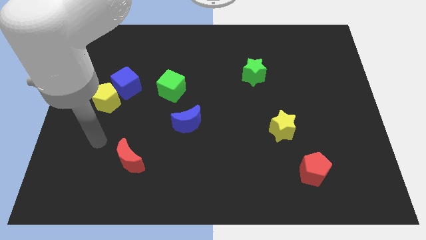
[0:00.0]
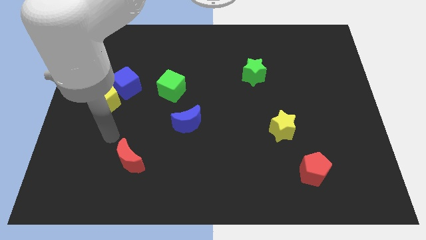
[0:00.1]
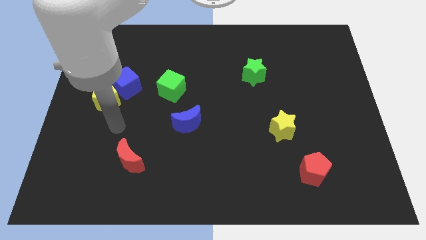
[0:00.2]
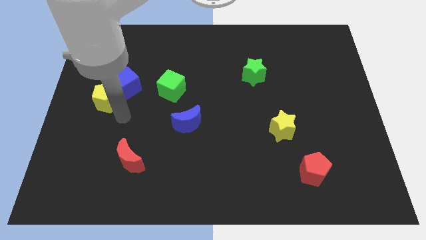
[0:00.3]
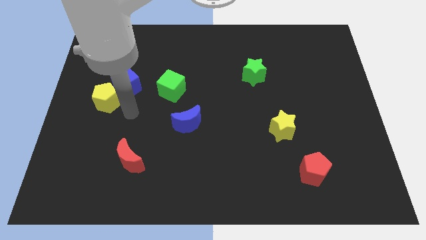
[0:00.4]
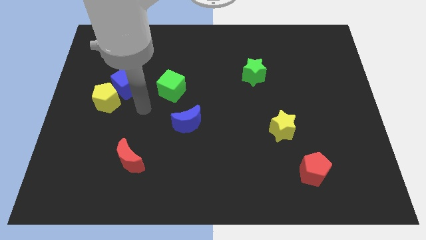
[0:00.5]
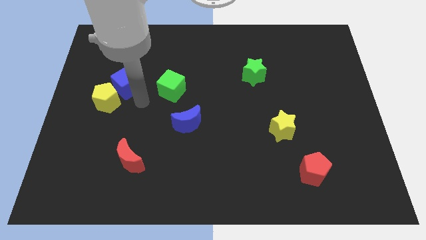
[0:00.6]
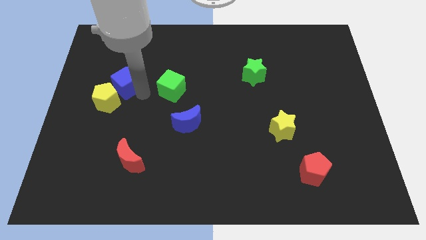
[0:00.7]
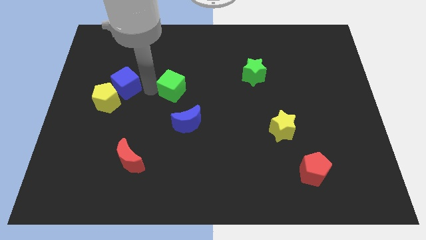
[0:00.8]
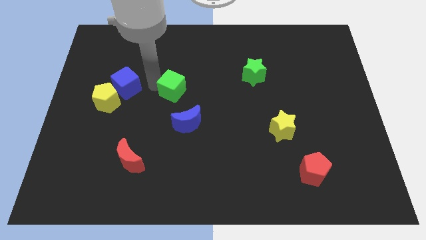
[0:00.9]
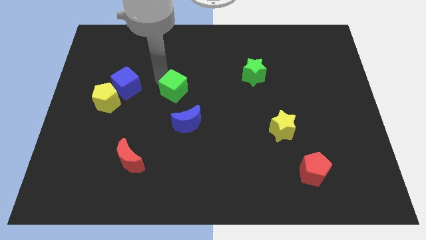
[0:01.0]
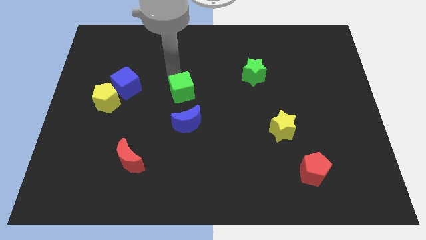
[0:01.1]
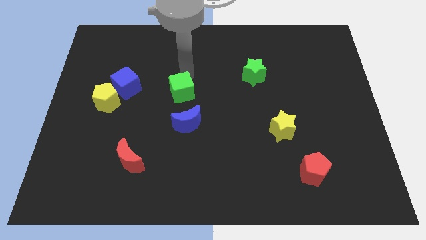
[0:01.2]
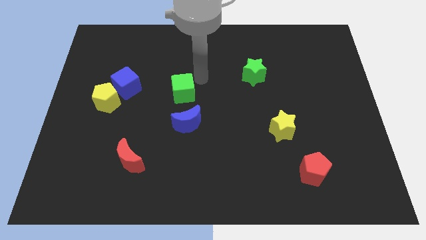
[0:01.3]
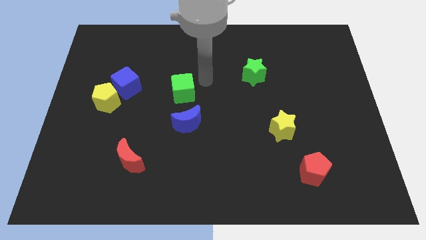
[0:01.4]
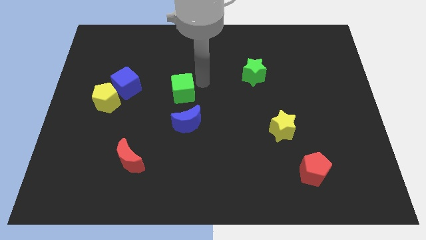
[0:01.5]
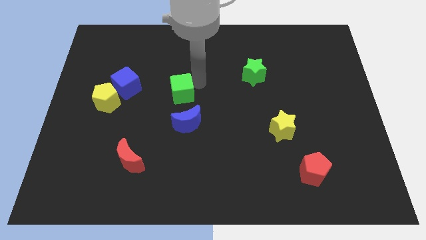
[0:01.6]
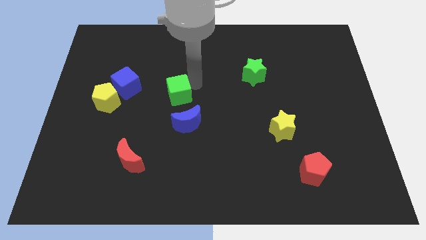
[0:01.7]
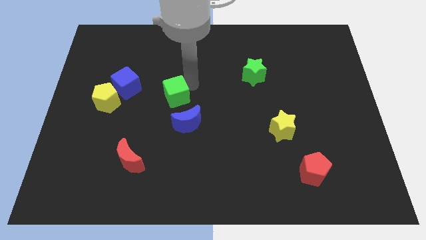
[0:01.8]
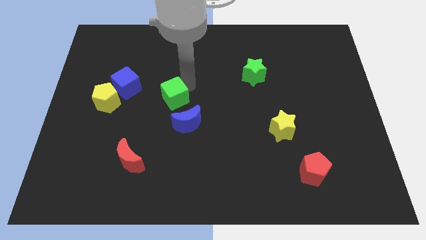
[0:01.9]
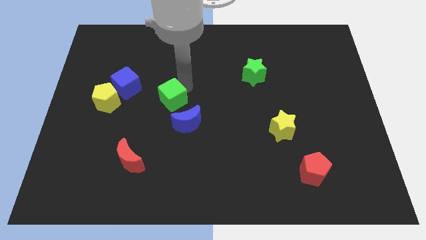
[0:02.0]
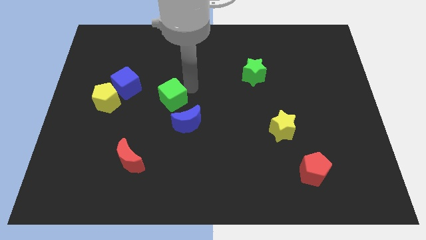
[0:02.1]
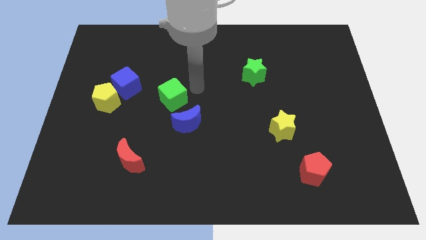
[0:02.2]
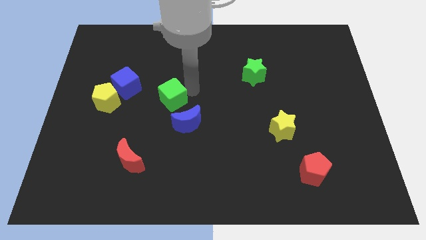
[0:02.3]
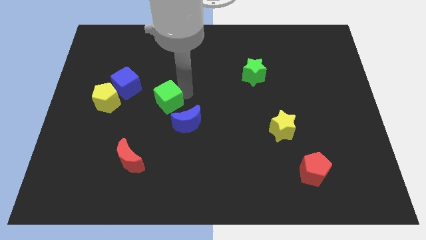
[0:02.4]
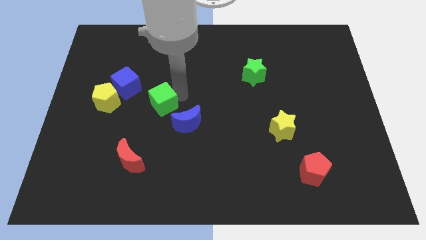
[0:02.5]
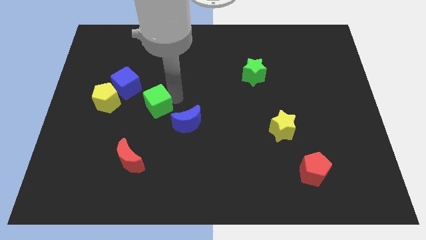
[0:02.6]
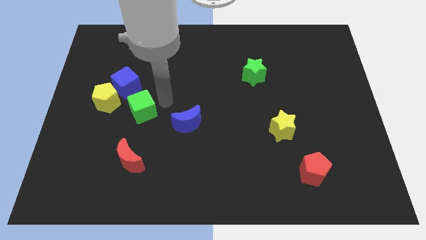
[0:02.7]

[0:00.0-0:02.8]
slightly move the green cube down and to the left diagonally

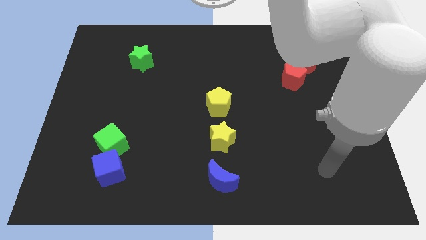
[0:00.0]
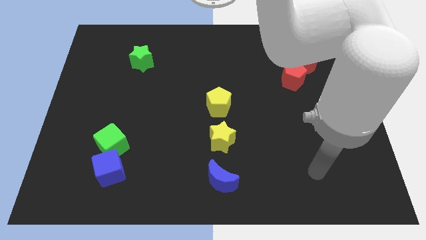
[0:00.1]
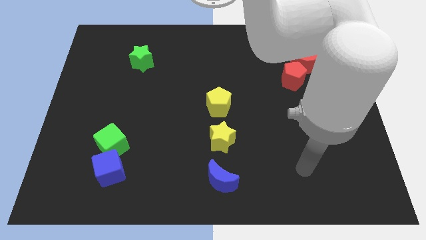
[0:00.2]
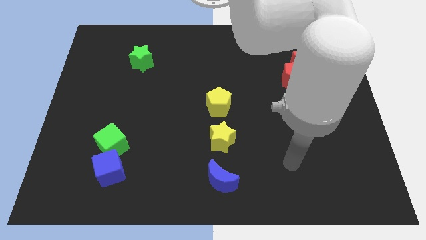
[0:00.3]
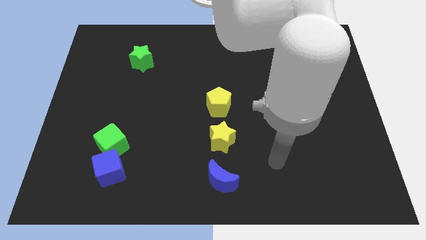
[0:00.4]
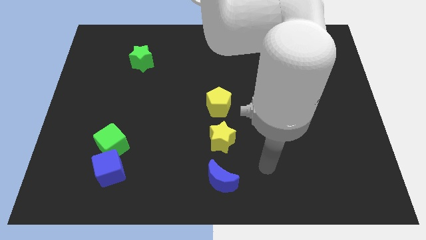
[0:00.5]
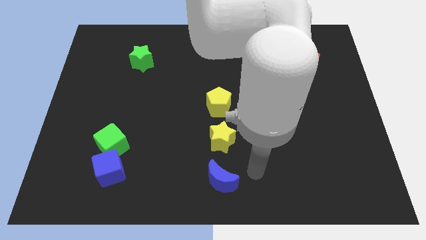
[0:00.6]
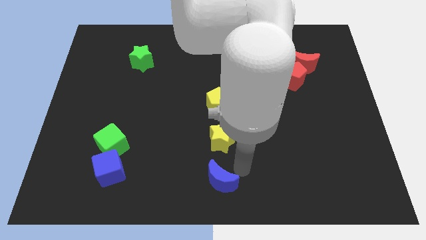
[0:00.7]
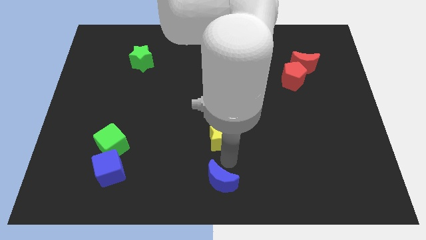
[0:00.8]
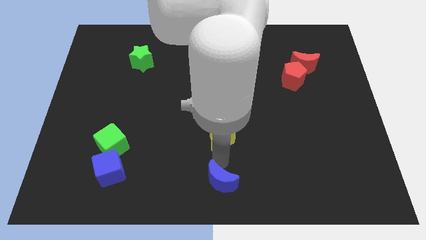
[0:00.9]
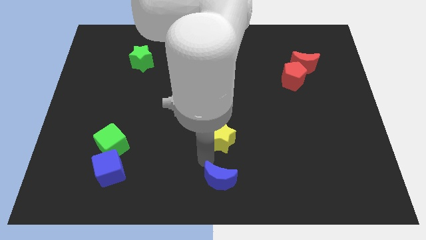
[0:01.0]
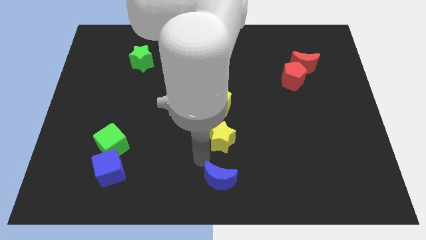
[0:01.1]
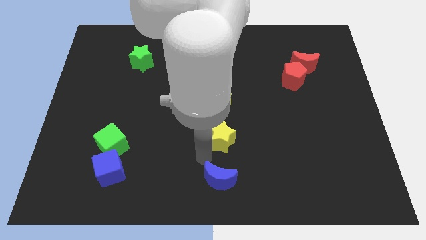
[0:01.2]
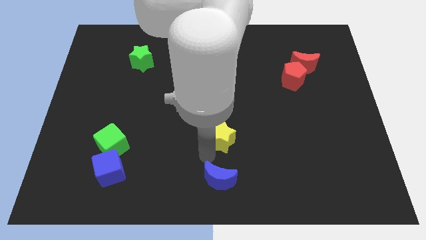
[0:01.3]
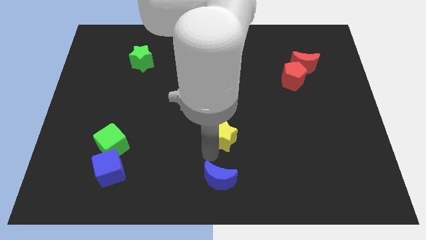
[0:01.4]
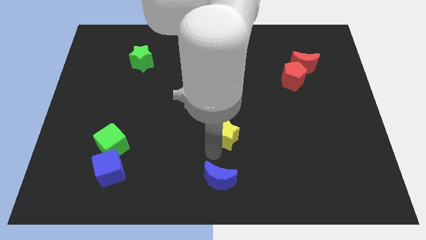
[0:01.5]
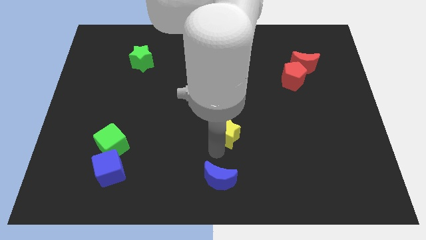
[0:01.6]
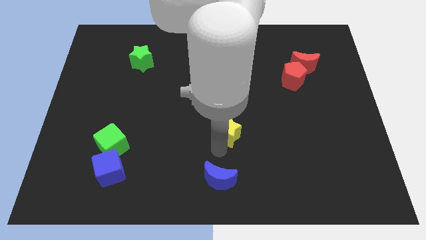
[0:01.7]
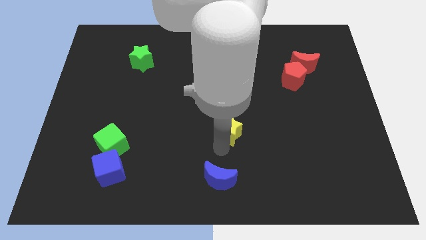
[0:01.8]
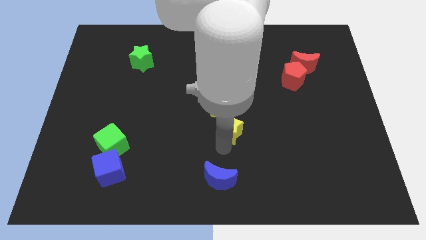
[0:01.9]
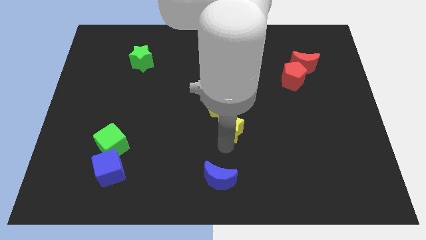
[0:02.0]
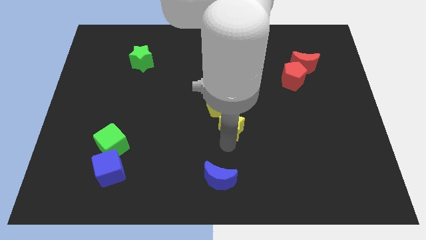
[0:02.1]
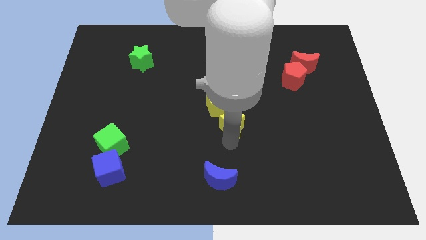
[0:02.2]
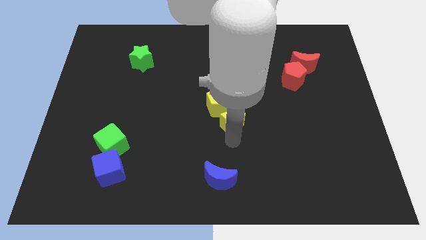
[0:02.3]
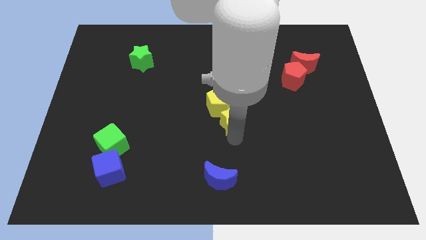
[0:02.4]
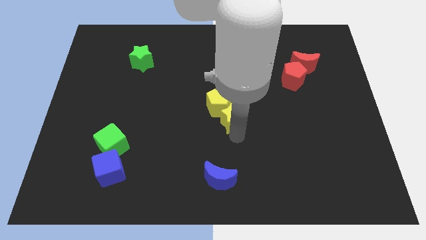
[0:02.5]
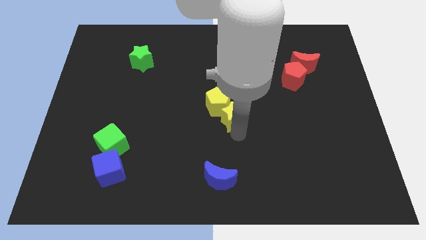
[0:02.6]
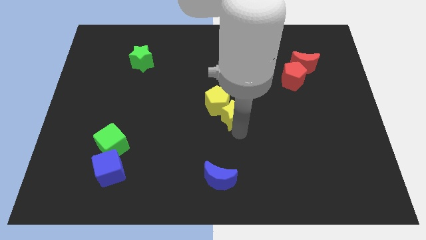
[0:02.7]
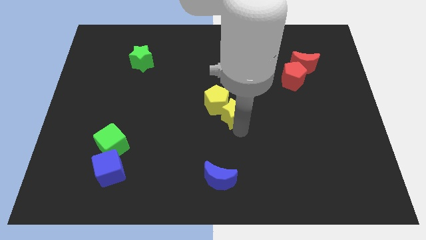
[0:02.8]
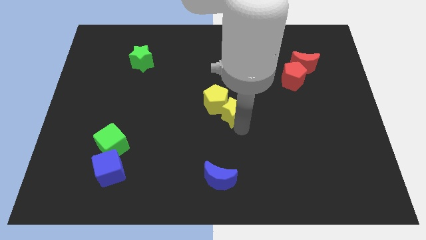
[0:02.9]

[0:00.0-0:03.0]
push the yellow star upwards a little bit

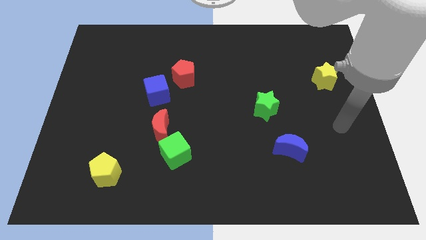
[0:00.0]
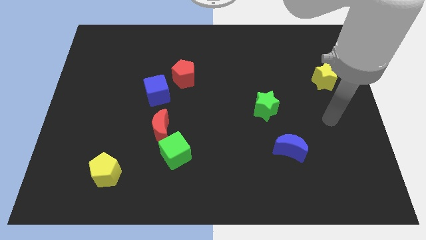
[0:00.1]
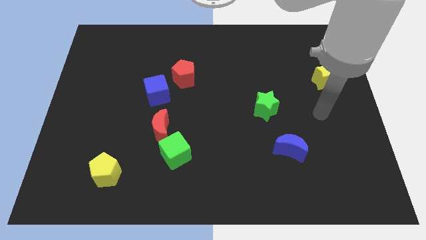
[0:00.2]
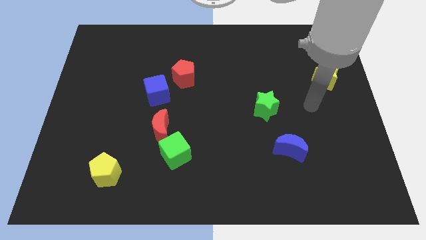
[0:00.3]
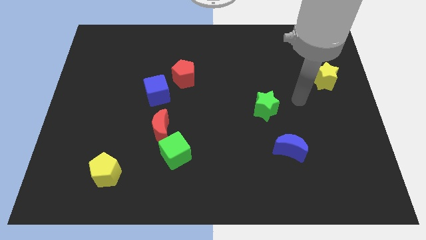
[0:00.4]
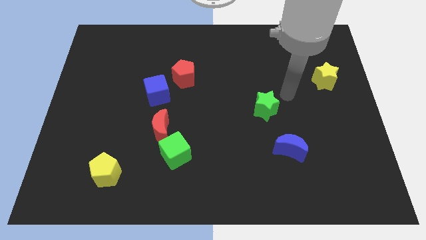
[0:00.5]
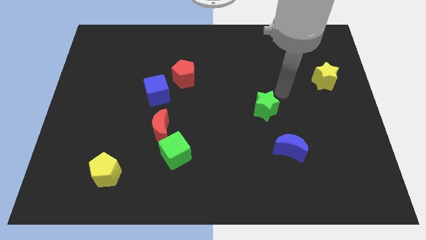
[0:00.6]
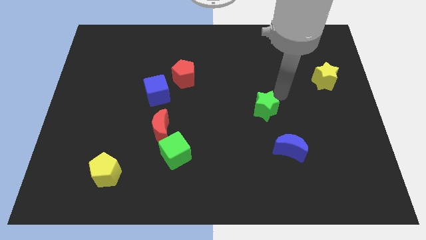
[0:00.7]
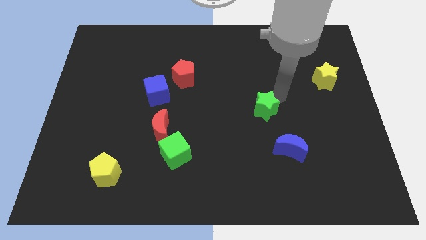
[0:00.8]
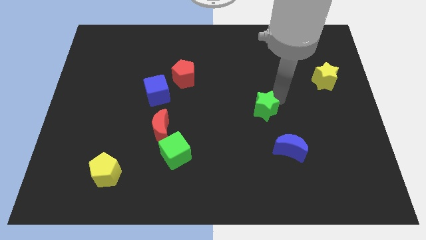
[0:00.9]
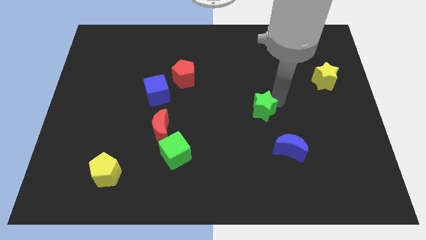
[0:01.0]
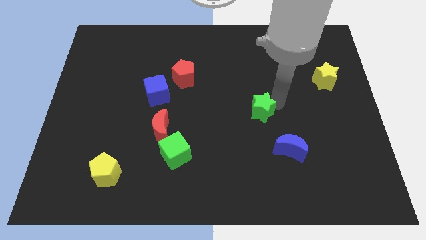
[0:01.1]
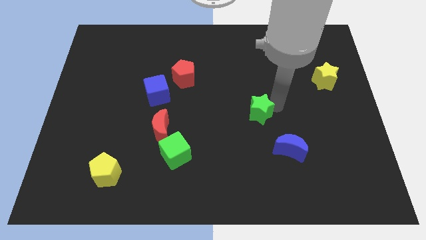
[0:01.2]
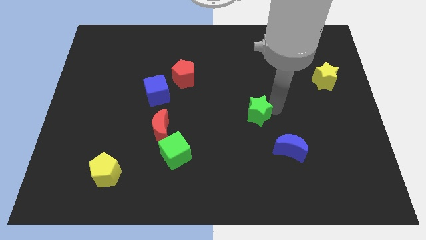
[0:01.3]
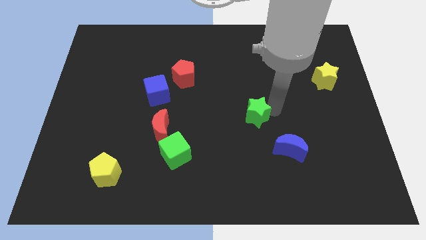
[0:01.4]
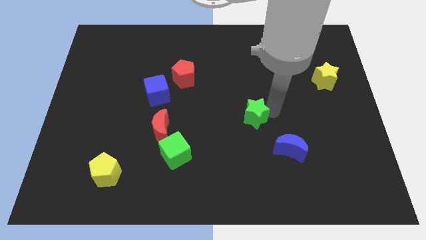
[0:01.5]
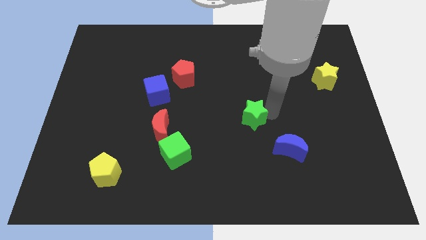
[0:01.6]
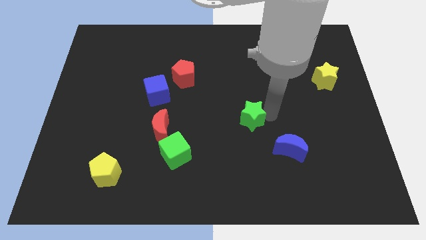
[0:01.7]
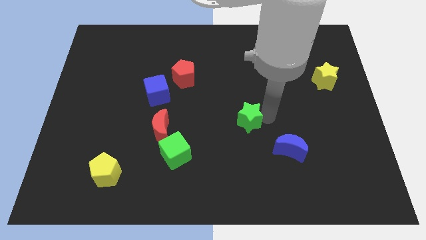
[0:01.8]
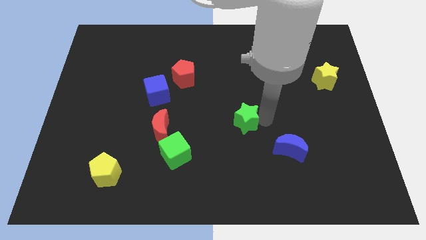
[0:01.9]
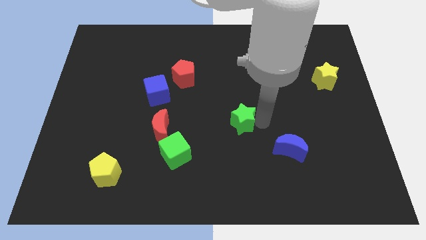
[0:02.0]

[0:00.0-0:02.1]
slide the green star somewhat down and to the left
